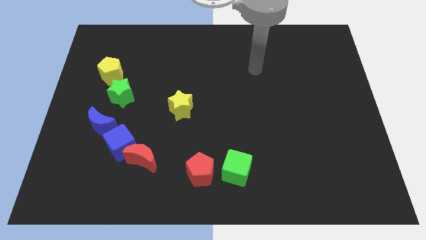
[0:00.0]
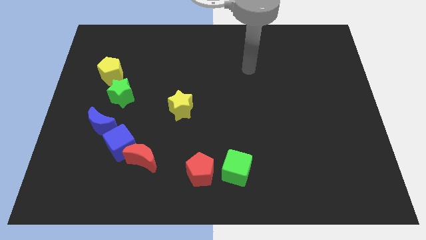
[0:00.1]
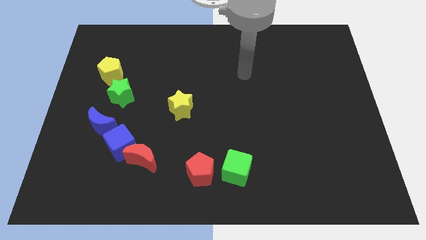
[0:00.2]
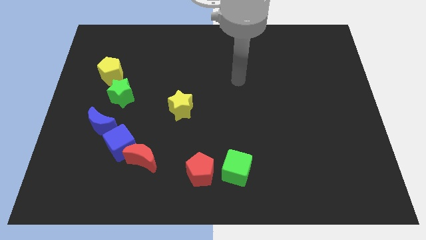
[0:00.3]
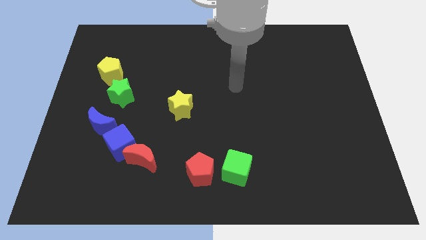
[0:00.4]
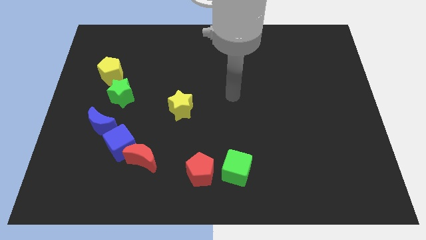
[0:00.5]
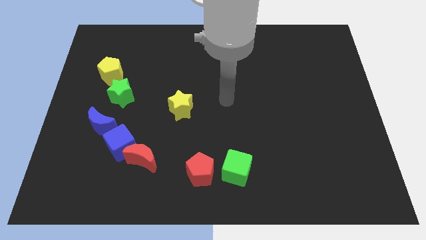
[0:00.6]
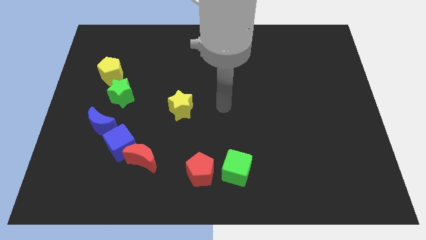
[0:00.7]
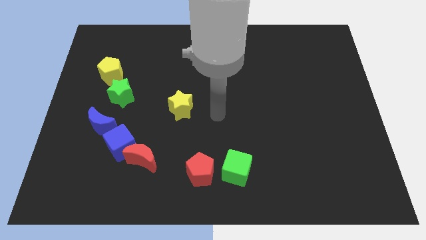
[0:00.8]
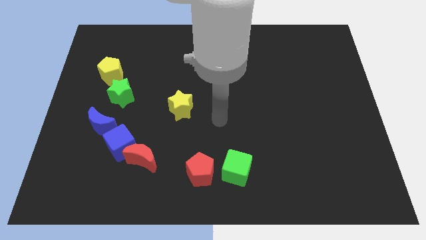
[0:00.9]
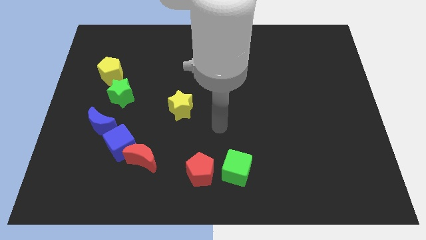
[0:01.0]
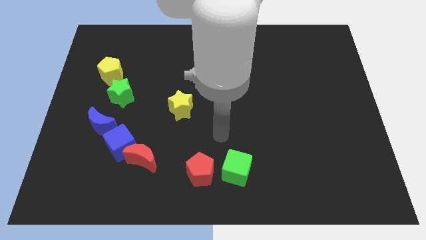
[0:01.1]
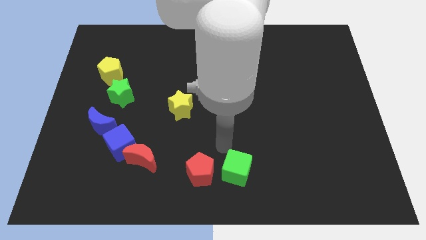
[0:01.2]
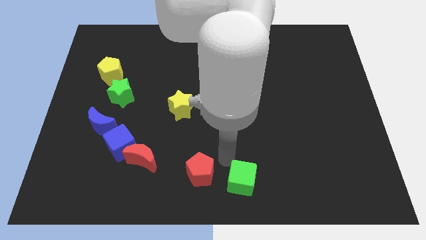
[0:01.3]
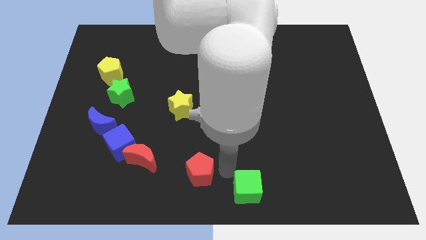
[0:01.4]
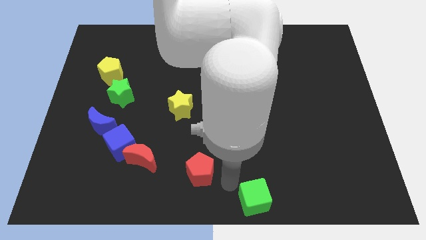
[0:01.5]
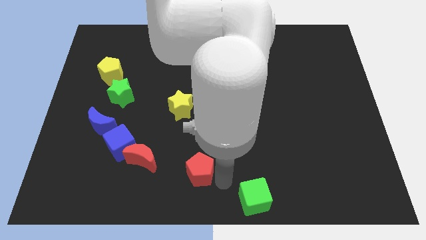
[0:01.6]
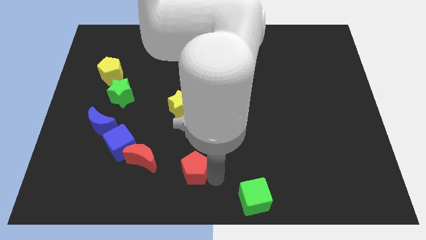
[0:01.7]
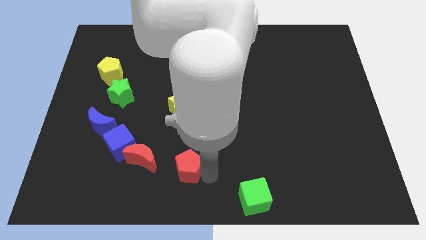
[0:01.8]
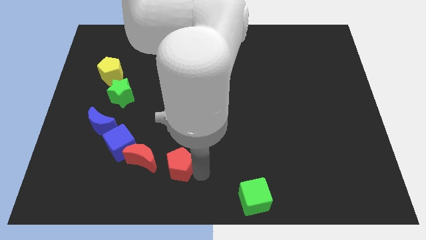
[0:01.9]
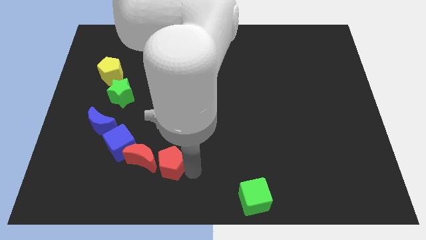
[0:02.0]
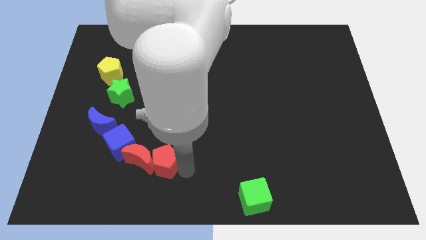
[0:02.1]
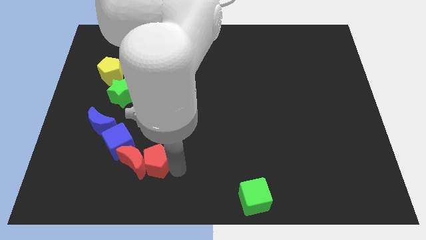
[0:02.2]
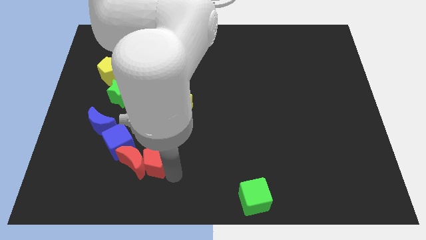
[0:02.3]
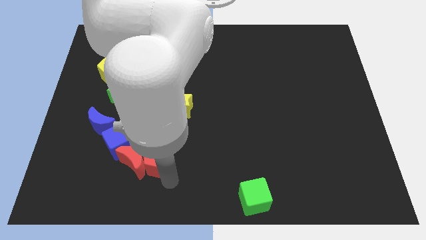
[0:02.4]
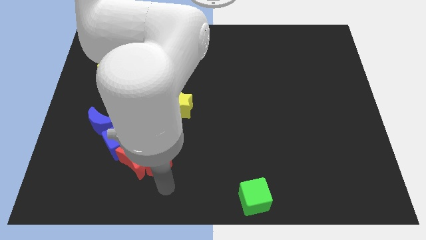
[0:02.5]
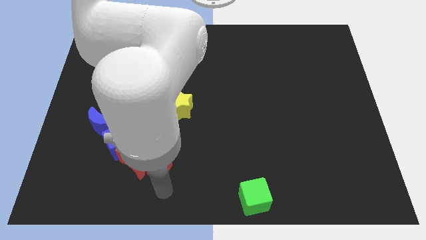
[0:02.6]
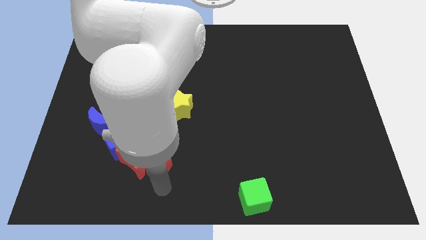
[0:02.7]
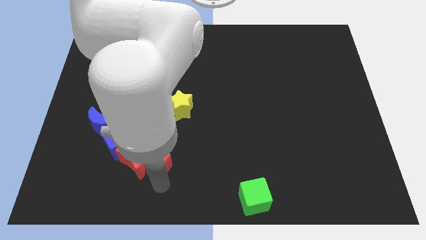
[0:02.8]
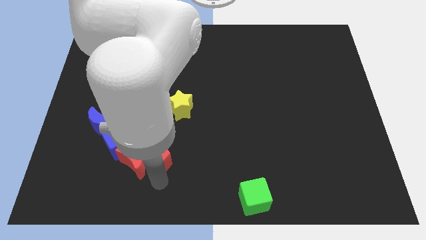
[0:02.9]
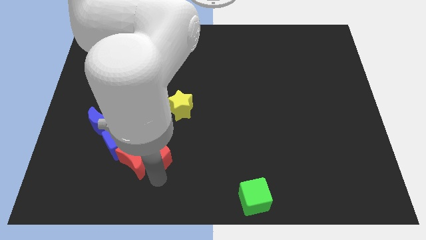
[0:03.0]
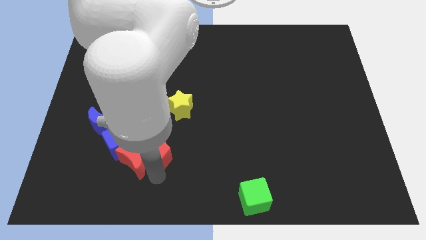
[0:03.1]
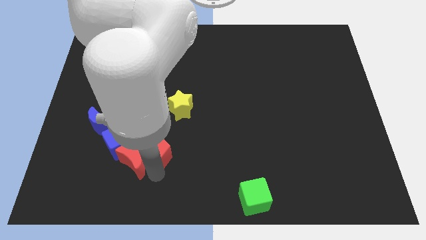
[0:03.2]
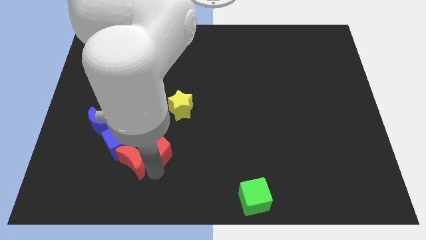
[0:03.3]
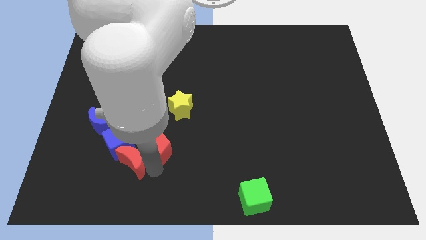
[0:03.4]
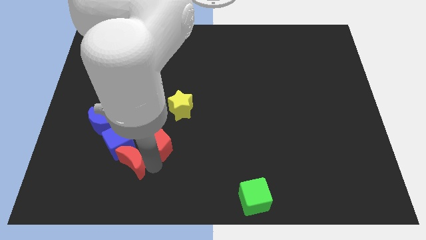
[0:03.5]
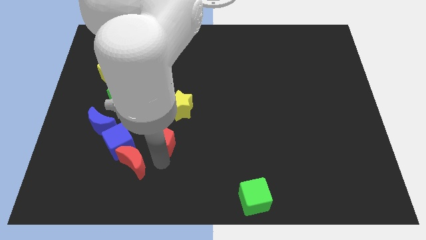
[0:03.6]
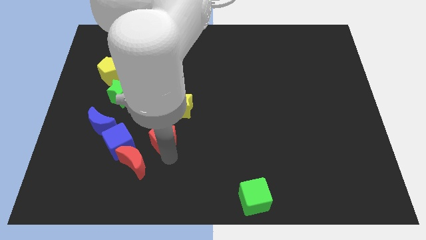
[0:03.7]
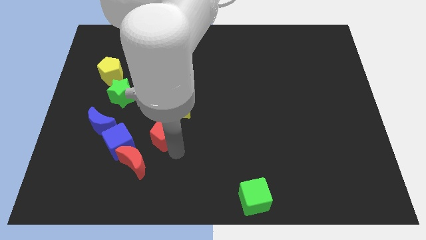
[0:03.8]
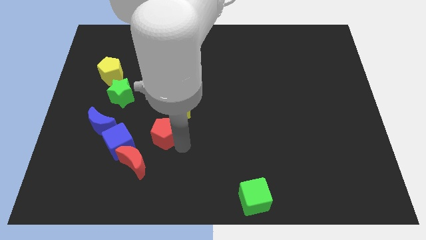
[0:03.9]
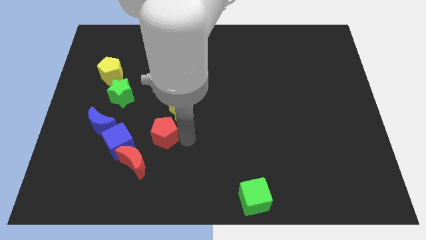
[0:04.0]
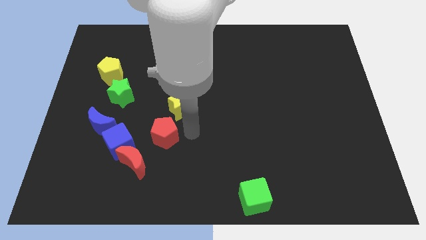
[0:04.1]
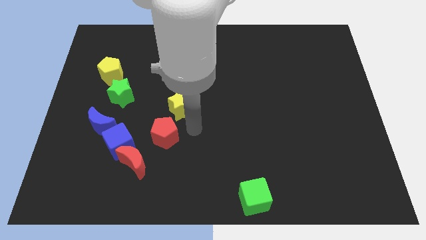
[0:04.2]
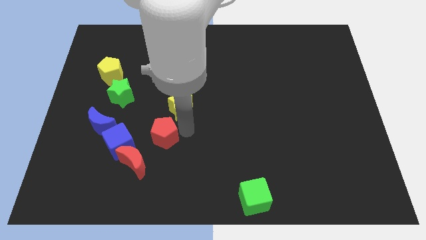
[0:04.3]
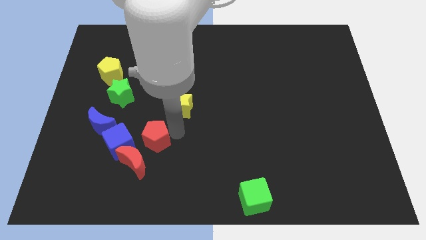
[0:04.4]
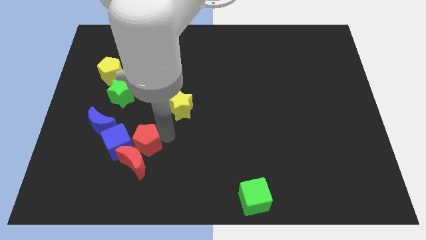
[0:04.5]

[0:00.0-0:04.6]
put the red pentagon to the blue cube

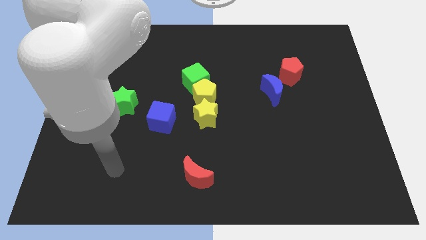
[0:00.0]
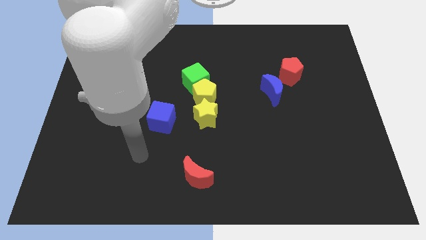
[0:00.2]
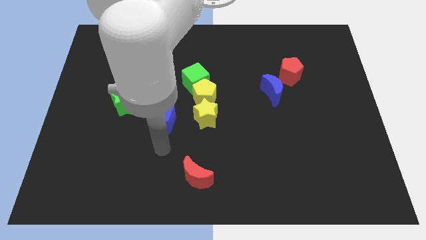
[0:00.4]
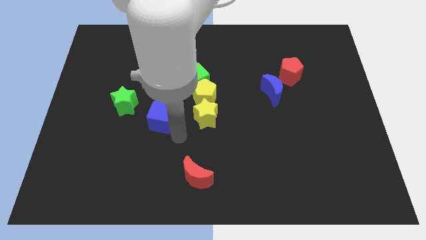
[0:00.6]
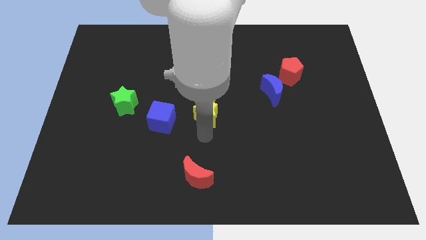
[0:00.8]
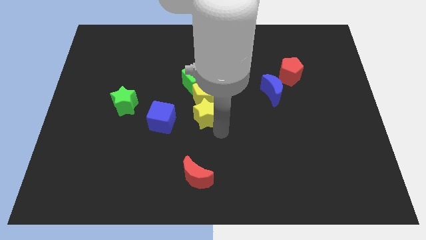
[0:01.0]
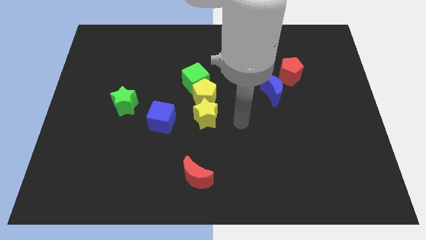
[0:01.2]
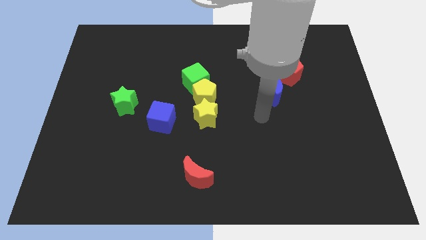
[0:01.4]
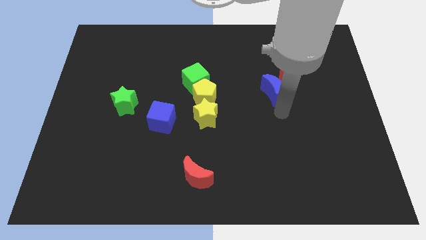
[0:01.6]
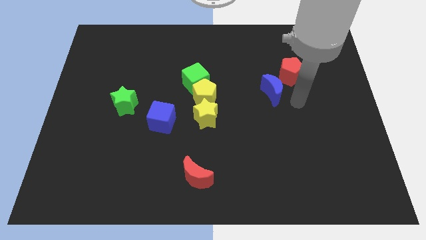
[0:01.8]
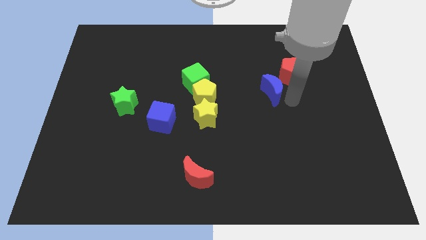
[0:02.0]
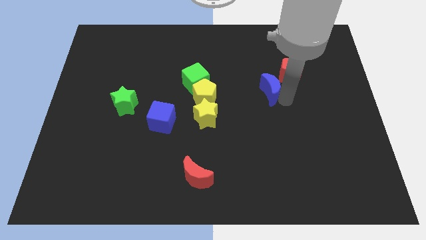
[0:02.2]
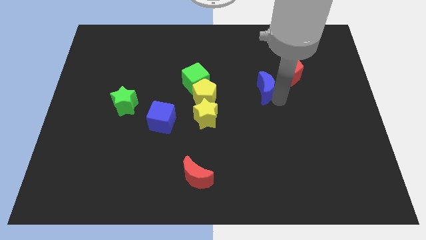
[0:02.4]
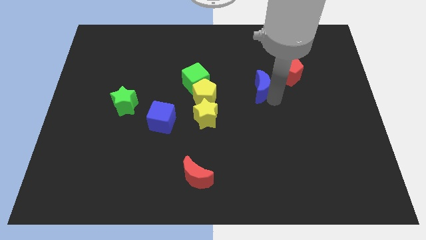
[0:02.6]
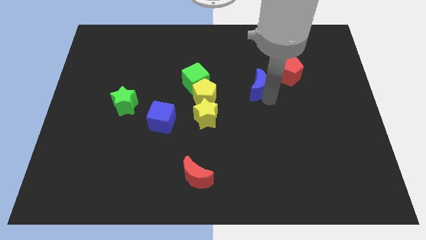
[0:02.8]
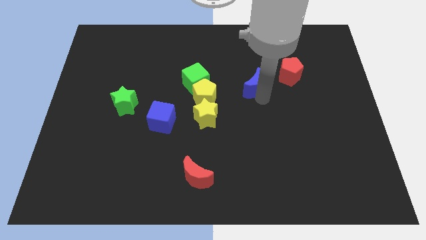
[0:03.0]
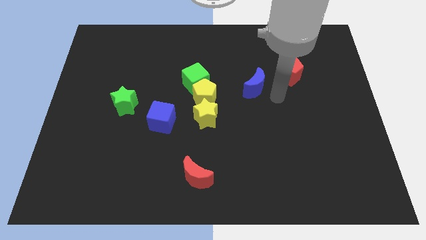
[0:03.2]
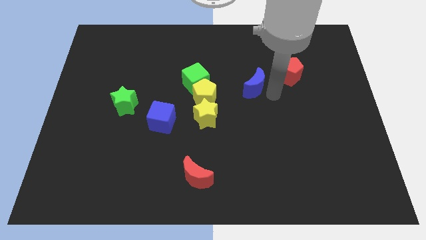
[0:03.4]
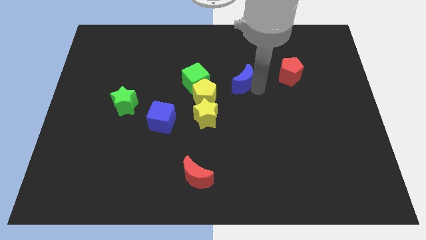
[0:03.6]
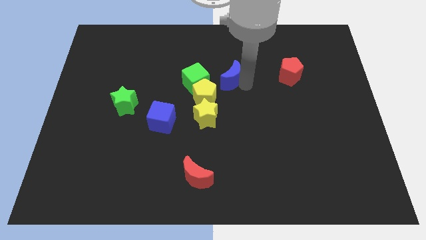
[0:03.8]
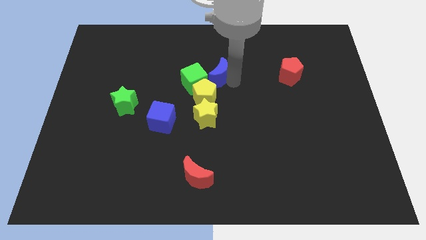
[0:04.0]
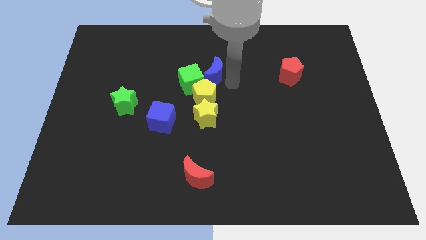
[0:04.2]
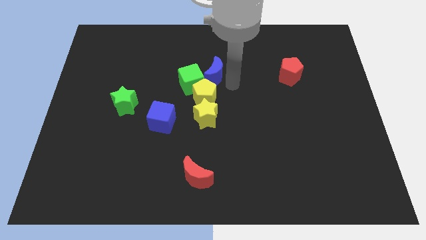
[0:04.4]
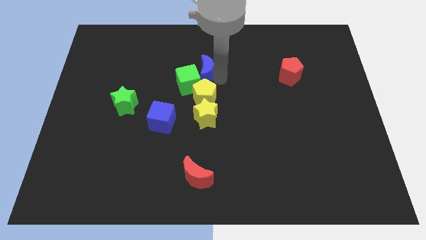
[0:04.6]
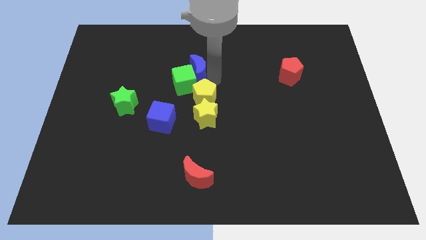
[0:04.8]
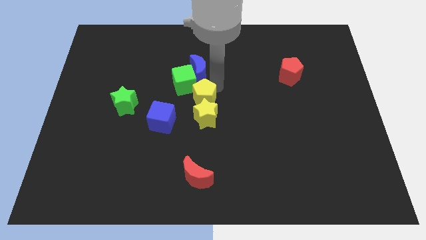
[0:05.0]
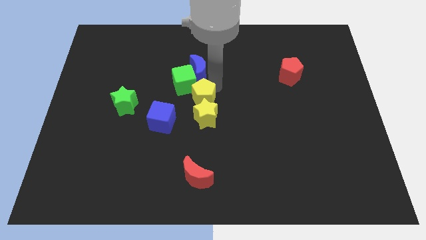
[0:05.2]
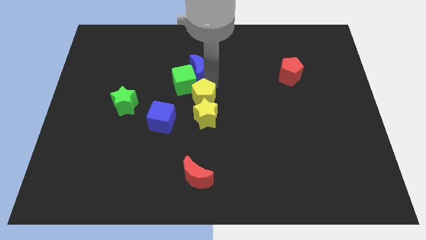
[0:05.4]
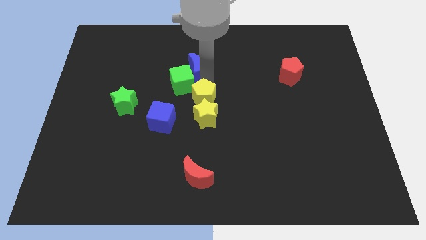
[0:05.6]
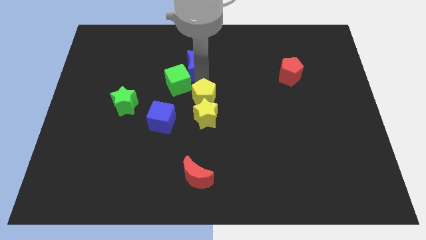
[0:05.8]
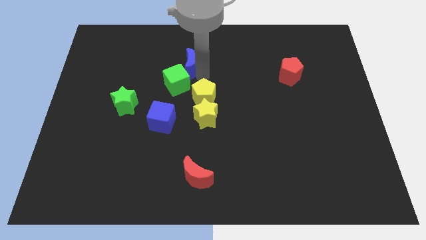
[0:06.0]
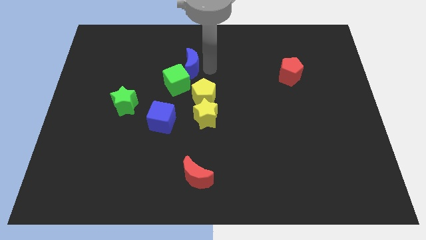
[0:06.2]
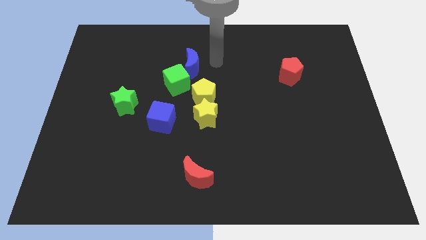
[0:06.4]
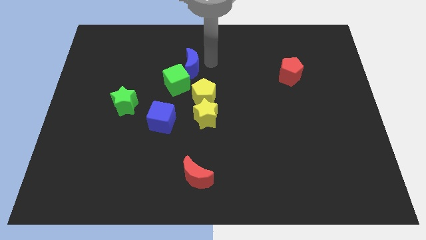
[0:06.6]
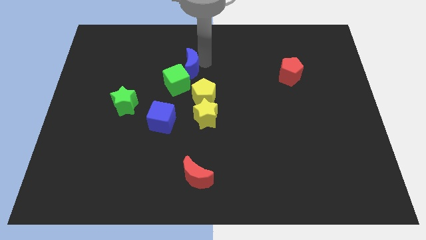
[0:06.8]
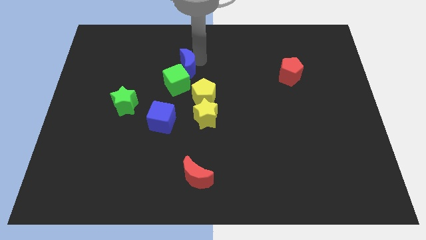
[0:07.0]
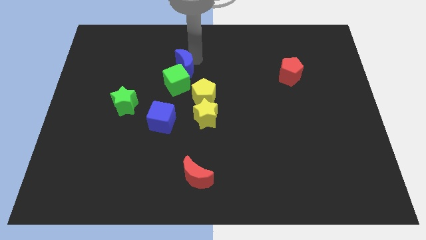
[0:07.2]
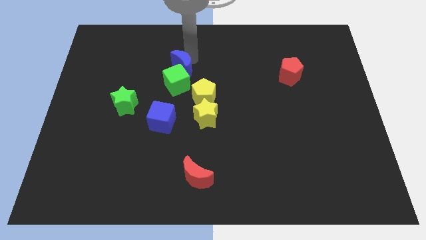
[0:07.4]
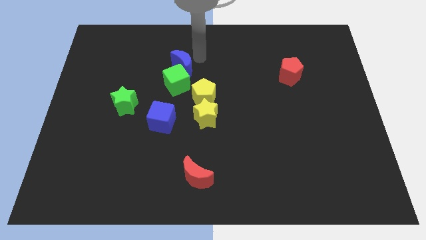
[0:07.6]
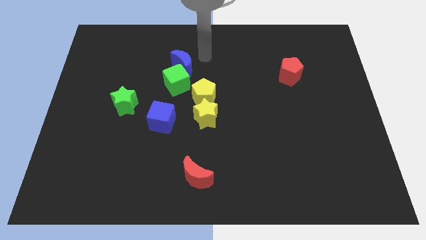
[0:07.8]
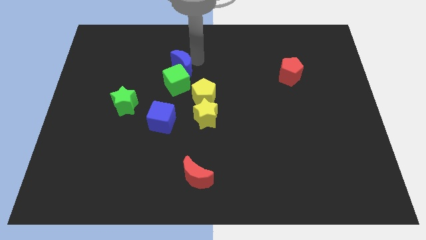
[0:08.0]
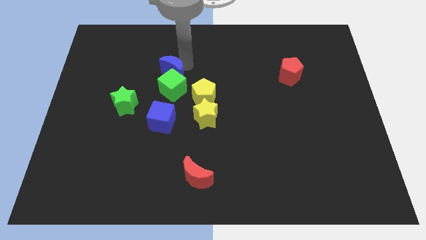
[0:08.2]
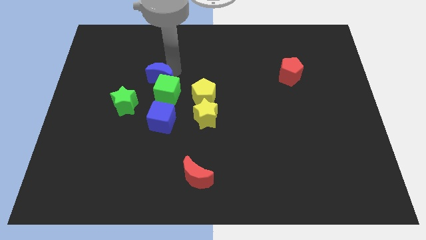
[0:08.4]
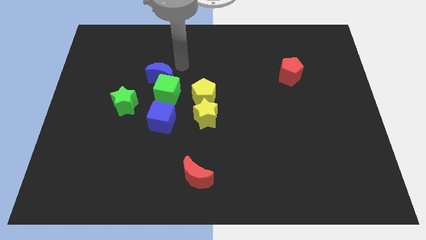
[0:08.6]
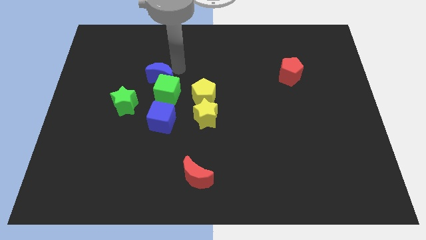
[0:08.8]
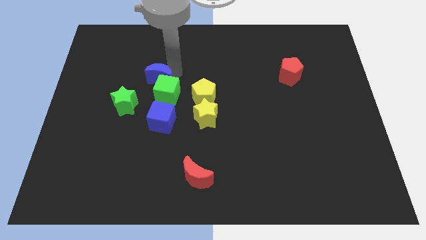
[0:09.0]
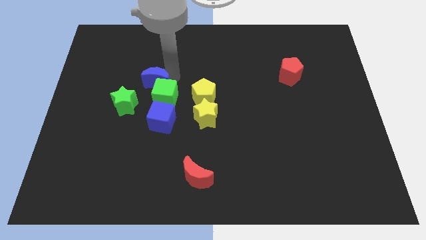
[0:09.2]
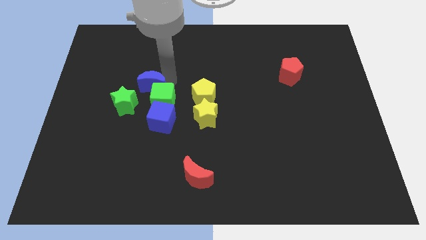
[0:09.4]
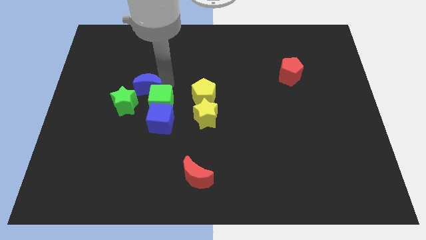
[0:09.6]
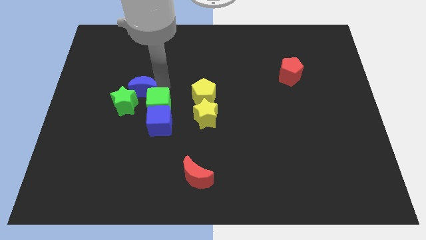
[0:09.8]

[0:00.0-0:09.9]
put the blue moon towards the green star
